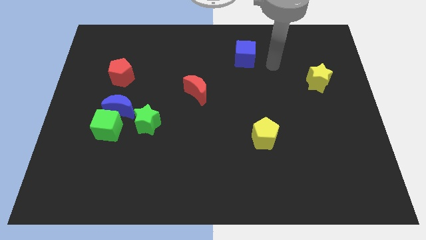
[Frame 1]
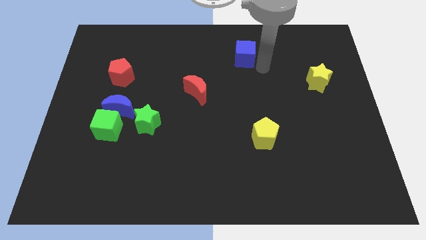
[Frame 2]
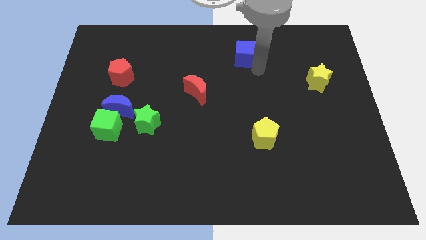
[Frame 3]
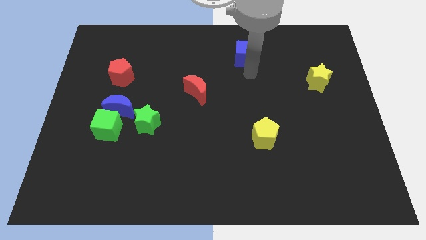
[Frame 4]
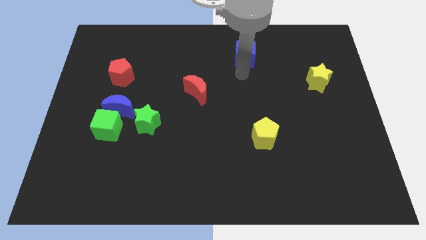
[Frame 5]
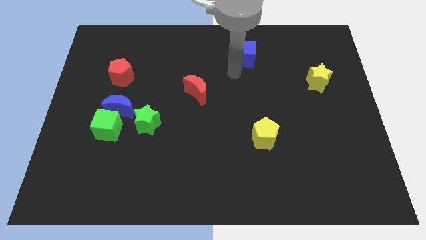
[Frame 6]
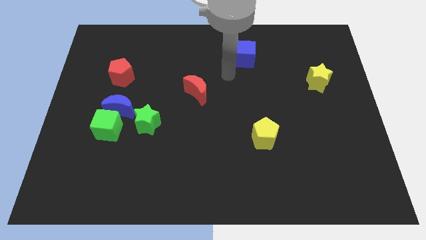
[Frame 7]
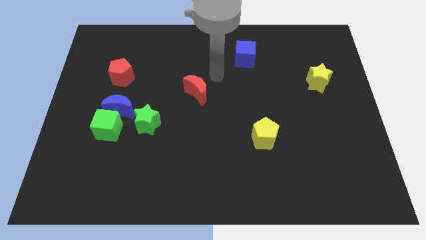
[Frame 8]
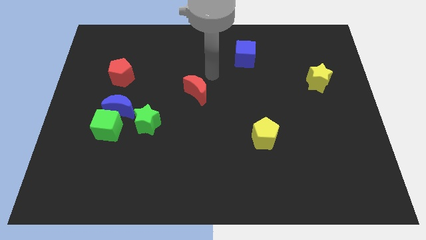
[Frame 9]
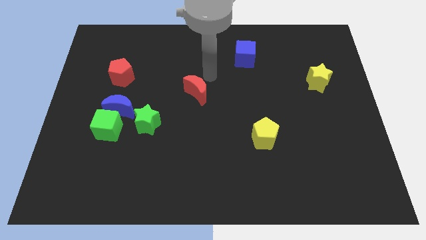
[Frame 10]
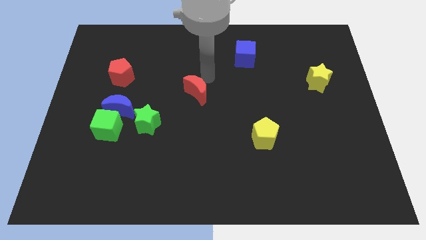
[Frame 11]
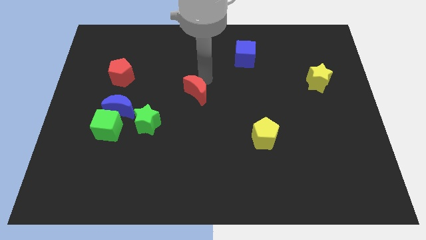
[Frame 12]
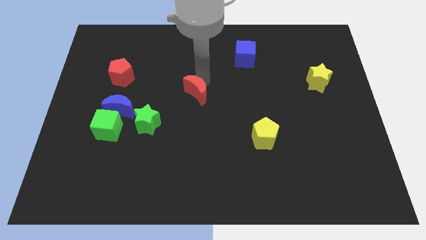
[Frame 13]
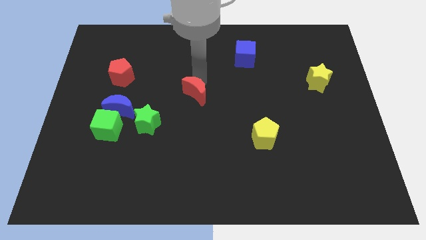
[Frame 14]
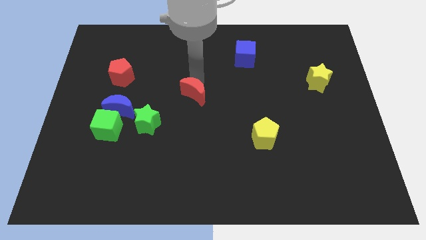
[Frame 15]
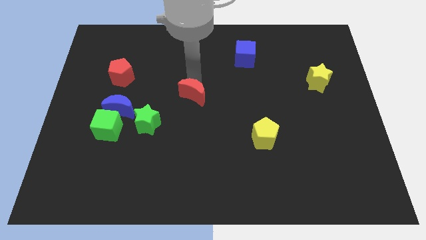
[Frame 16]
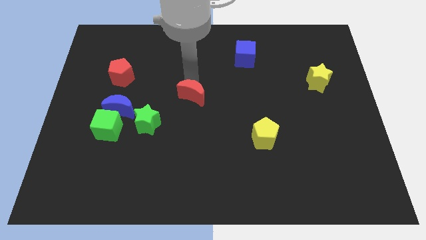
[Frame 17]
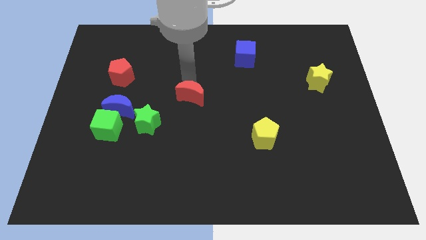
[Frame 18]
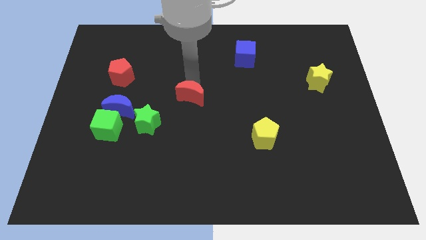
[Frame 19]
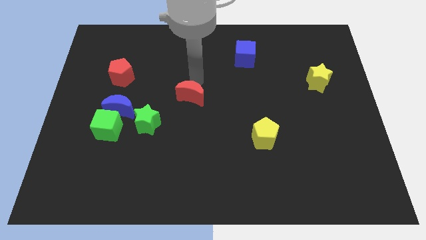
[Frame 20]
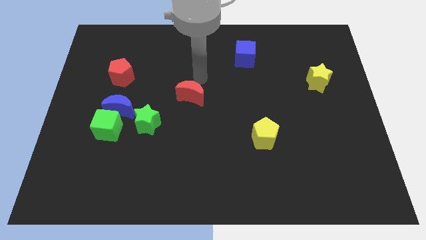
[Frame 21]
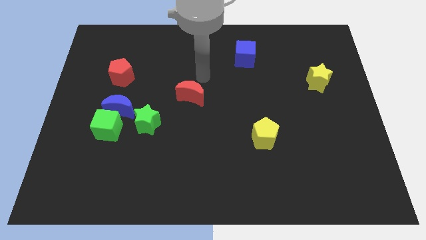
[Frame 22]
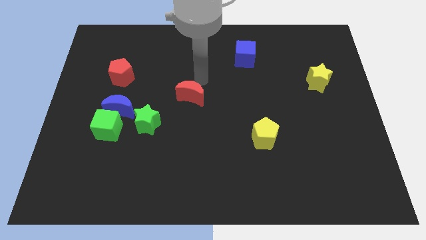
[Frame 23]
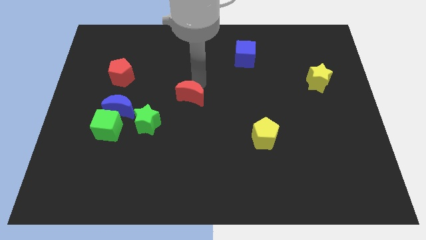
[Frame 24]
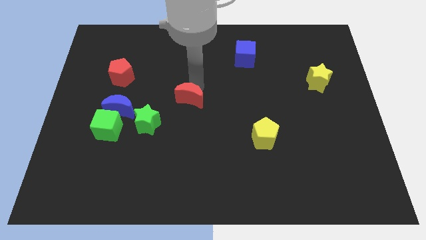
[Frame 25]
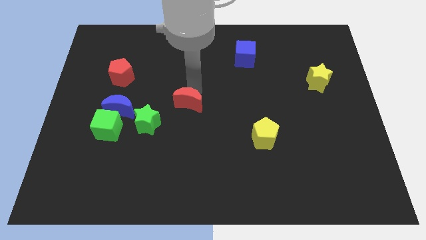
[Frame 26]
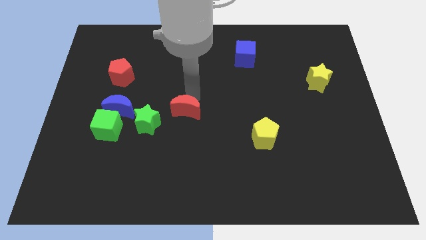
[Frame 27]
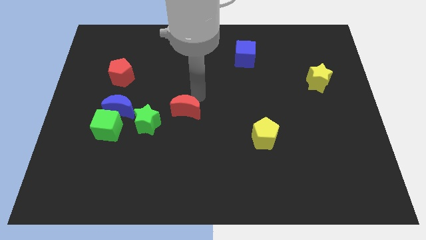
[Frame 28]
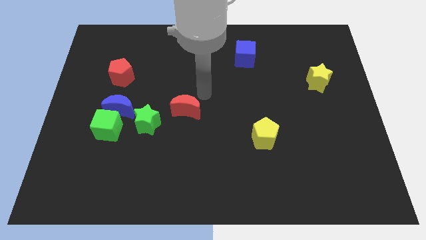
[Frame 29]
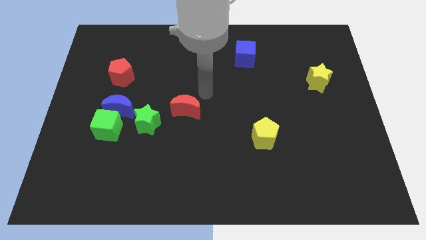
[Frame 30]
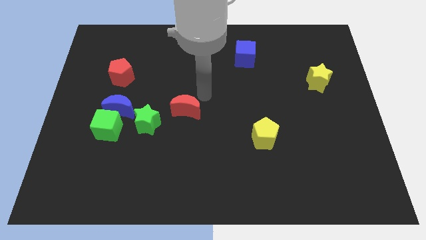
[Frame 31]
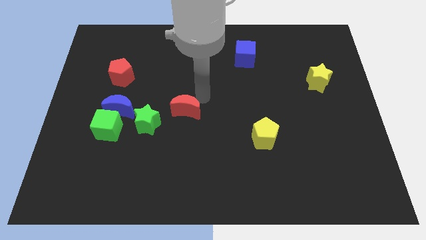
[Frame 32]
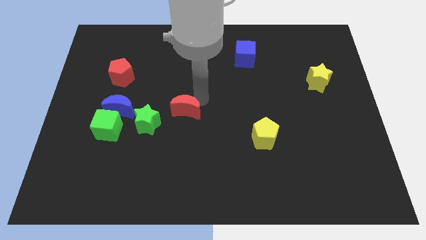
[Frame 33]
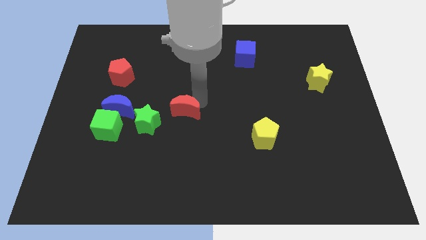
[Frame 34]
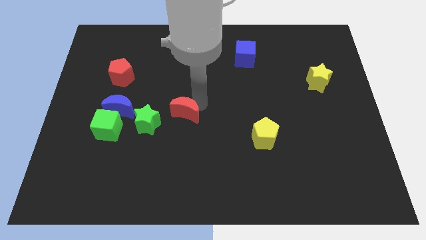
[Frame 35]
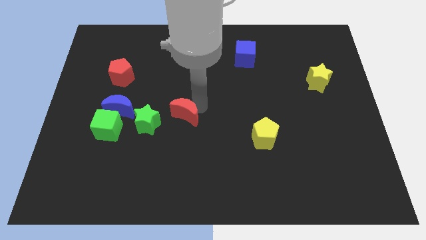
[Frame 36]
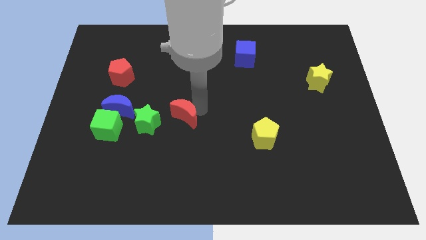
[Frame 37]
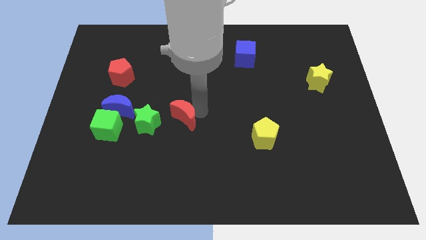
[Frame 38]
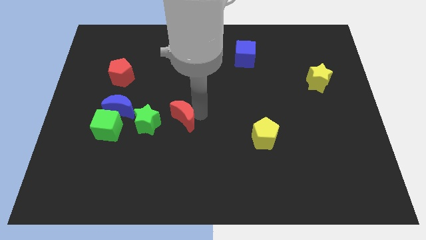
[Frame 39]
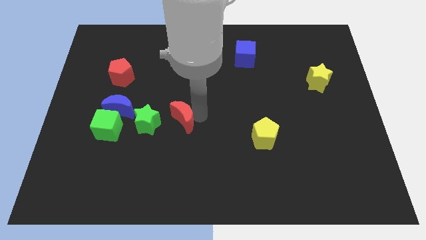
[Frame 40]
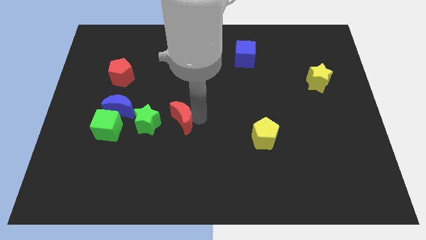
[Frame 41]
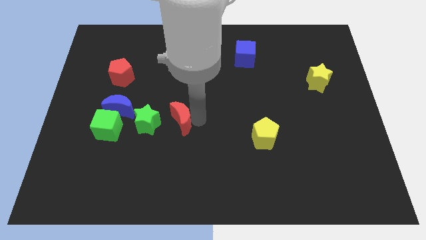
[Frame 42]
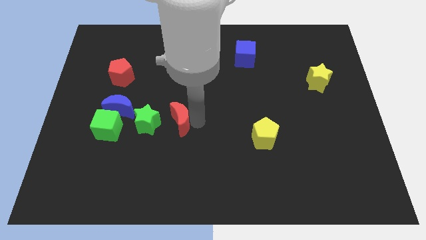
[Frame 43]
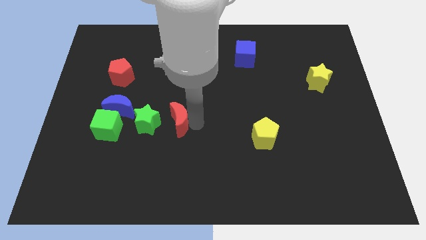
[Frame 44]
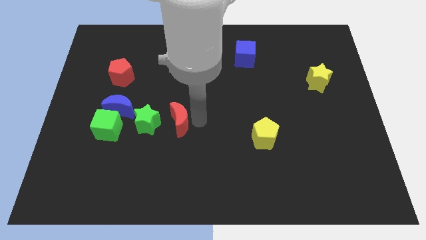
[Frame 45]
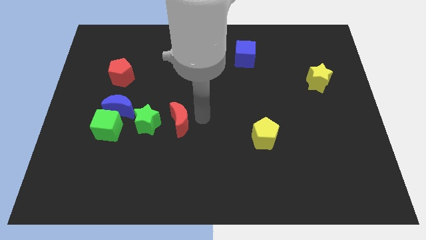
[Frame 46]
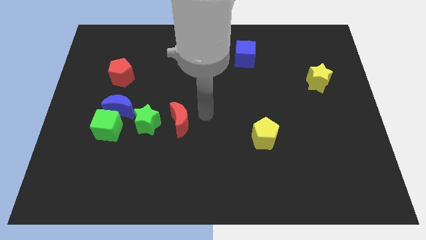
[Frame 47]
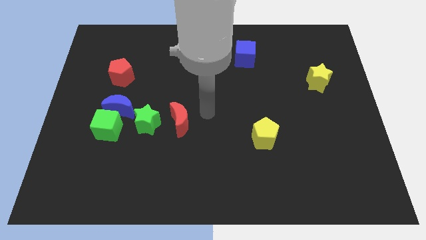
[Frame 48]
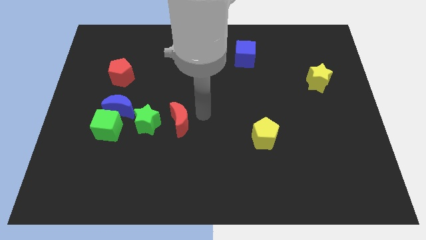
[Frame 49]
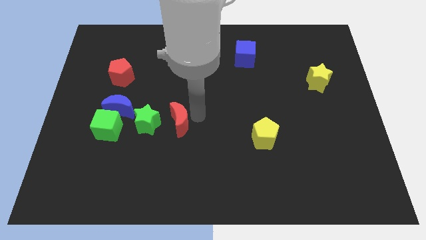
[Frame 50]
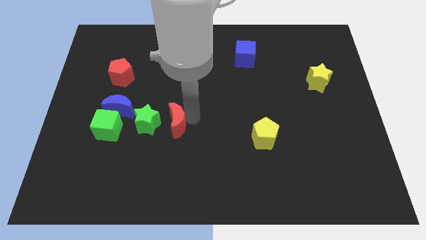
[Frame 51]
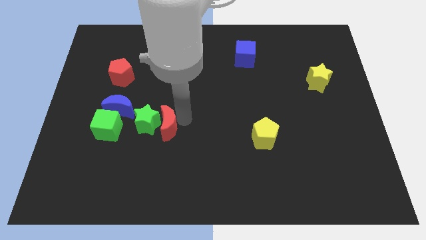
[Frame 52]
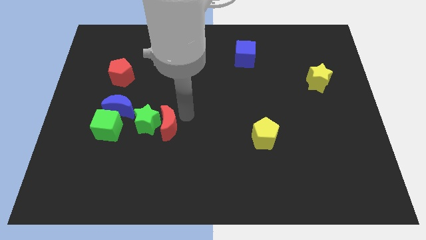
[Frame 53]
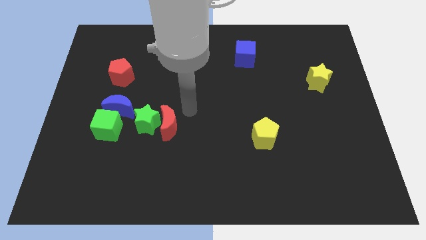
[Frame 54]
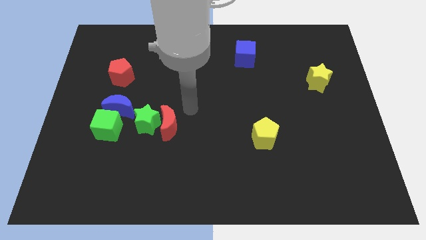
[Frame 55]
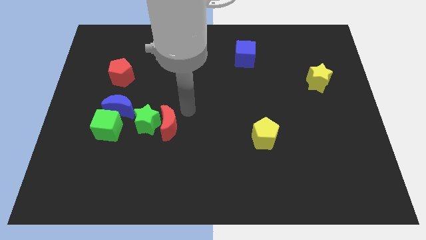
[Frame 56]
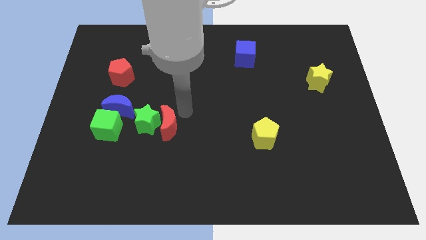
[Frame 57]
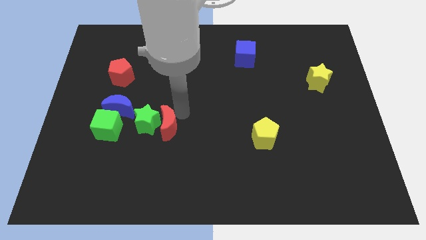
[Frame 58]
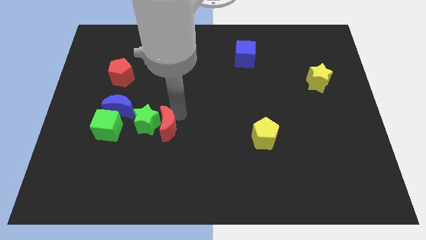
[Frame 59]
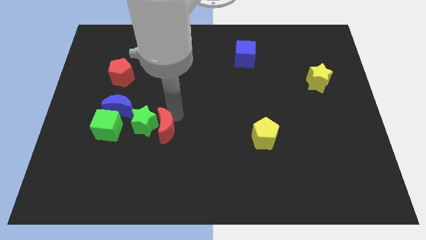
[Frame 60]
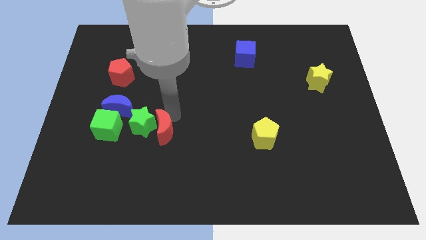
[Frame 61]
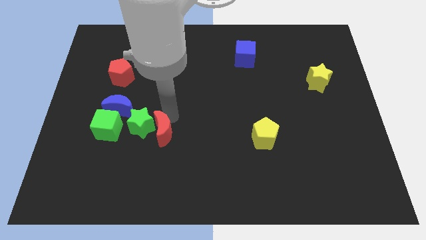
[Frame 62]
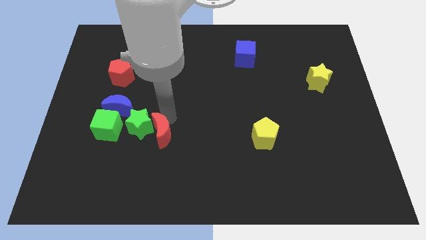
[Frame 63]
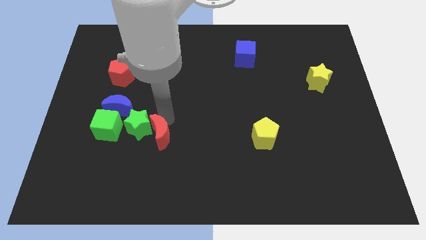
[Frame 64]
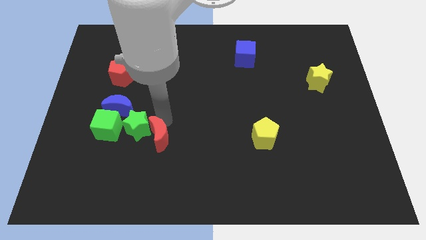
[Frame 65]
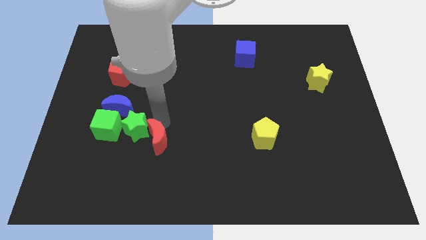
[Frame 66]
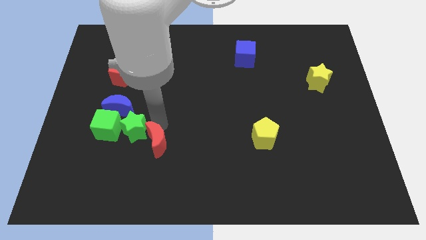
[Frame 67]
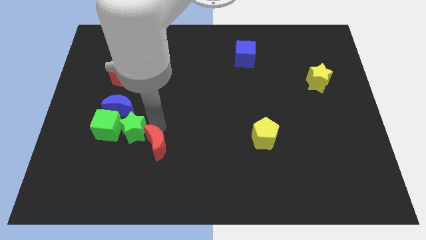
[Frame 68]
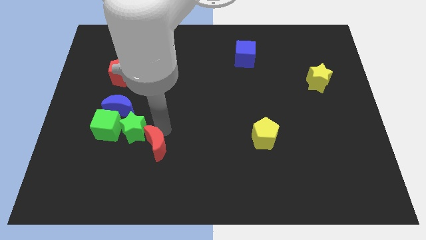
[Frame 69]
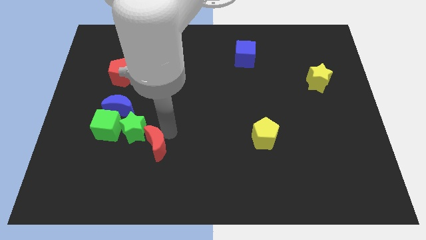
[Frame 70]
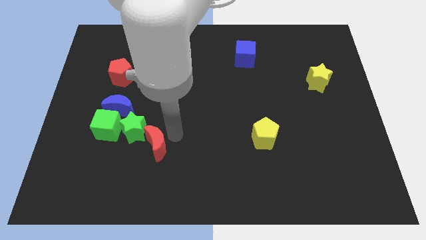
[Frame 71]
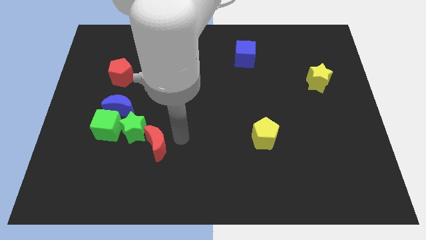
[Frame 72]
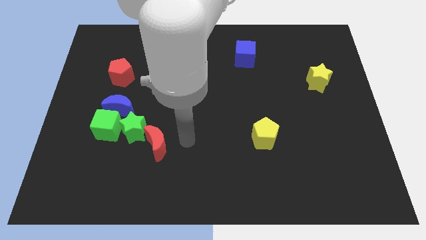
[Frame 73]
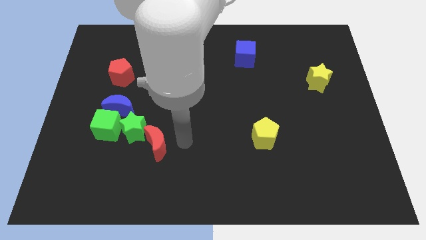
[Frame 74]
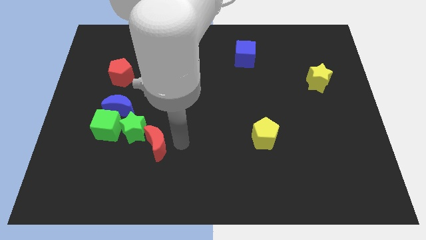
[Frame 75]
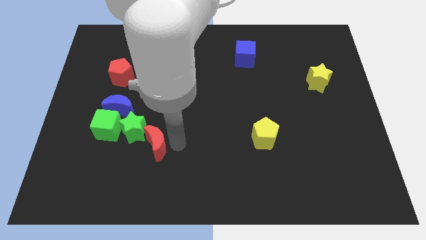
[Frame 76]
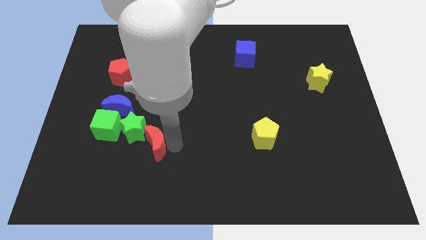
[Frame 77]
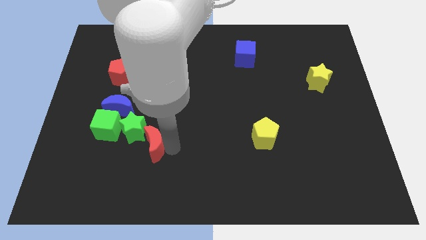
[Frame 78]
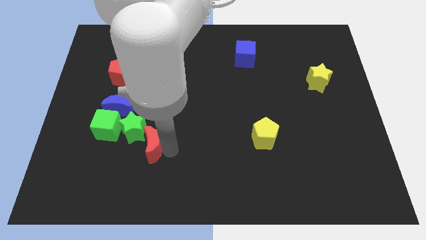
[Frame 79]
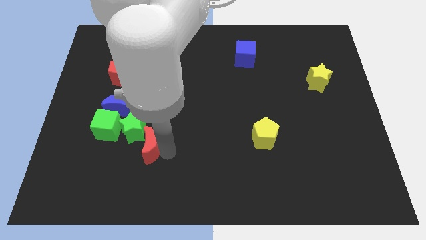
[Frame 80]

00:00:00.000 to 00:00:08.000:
move the red moon to the bottom right side of the green cube
